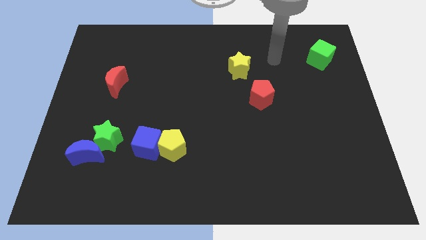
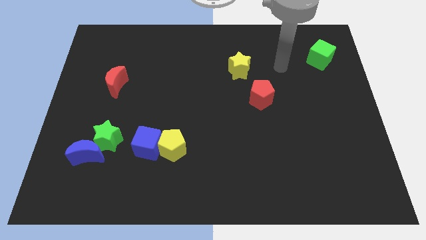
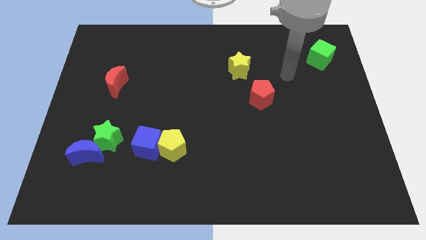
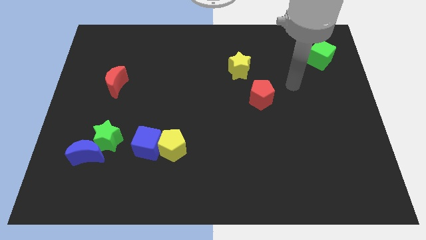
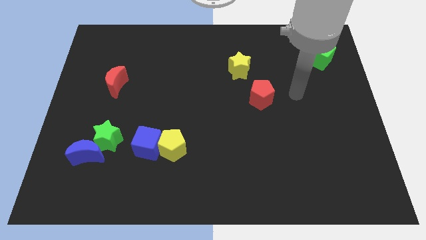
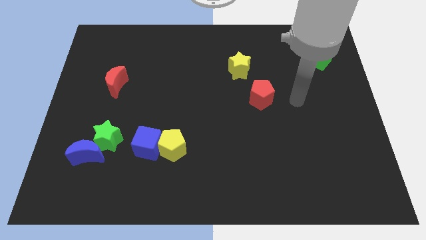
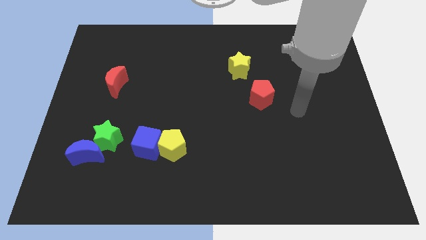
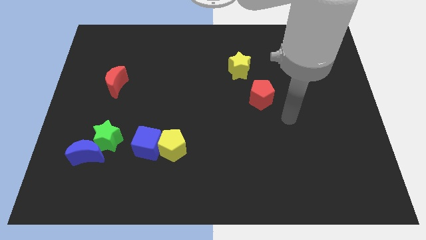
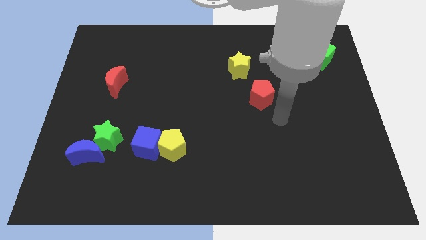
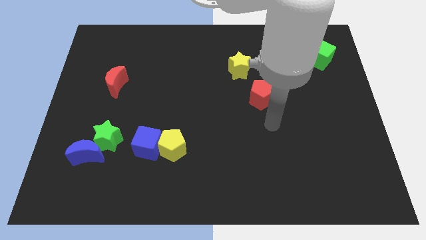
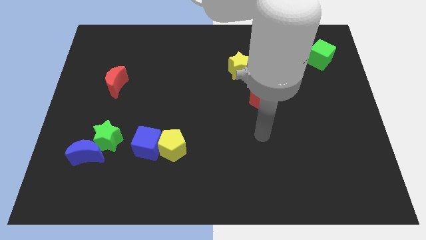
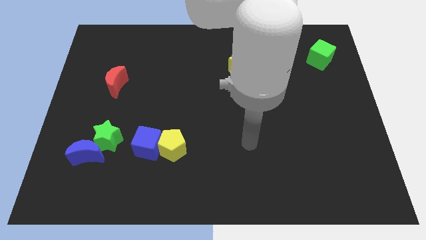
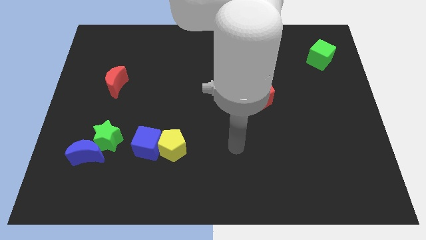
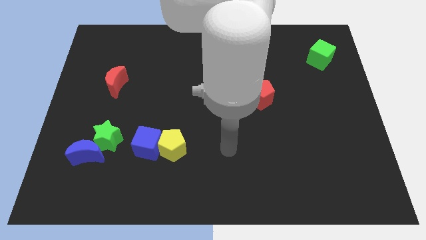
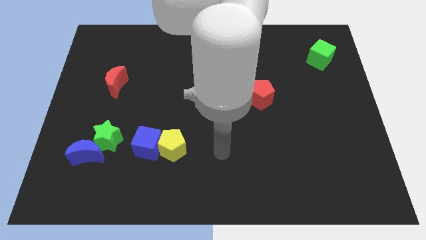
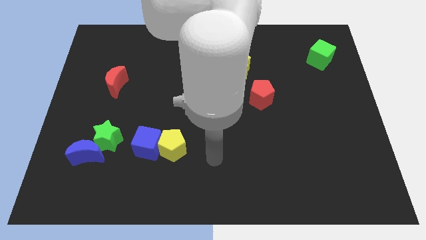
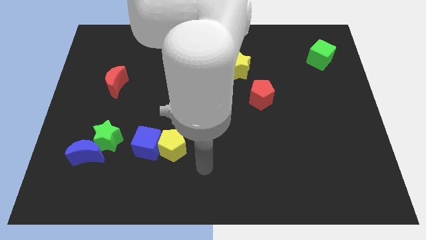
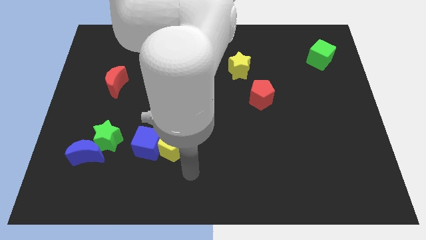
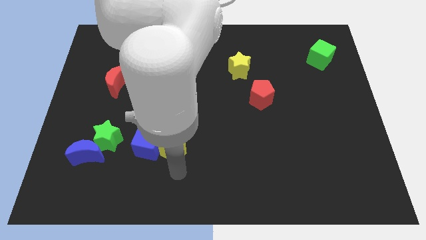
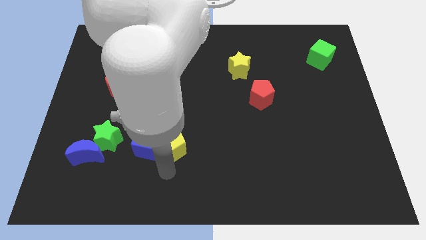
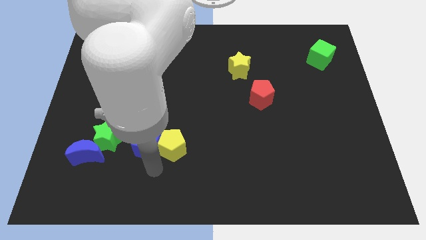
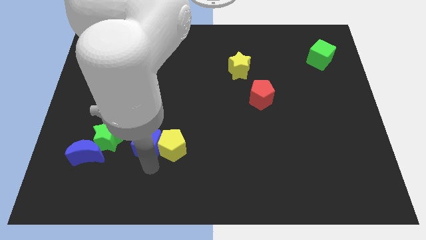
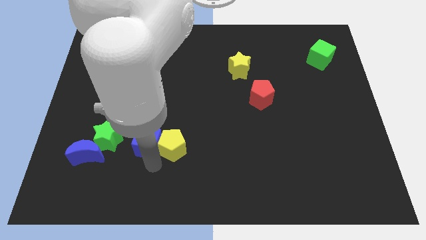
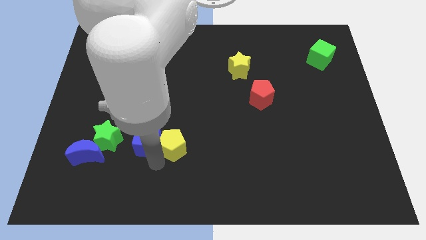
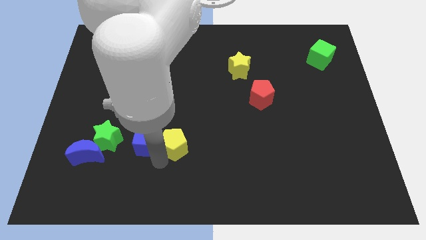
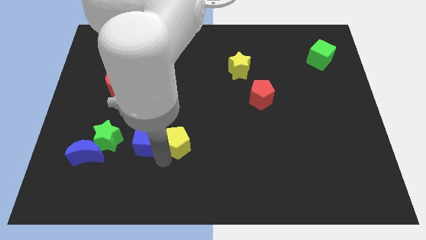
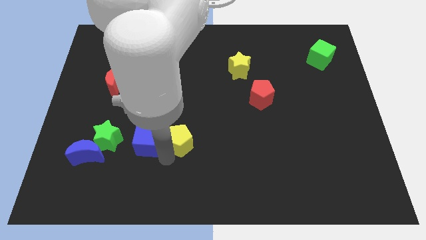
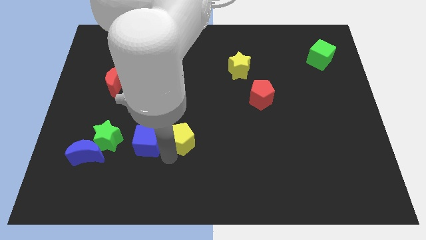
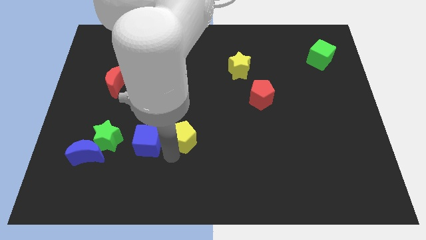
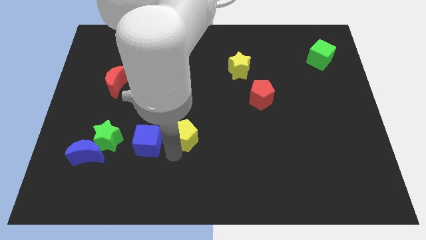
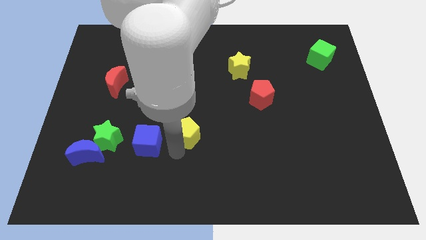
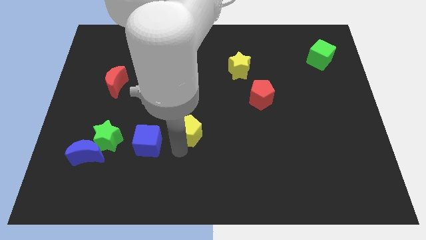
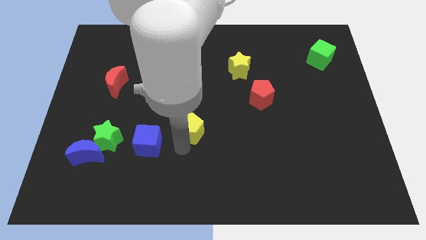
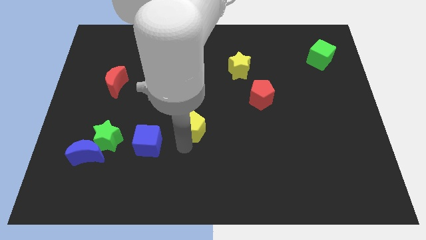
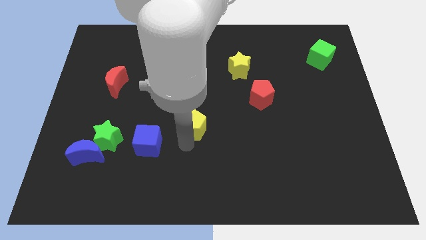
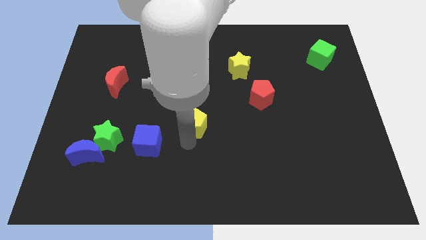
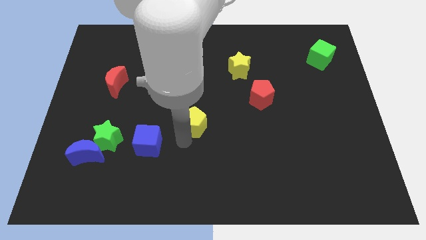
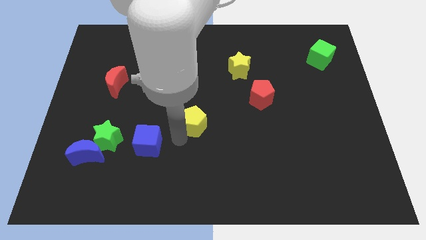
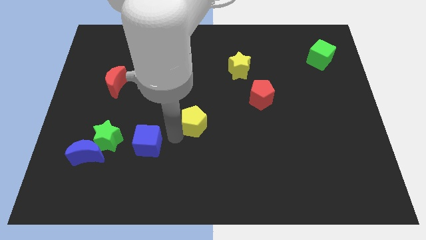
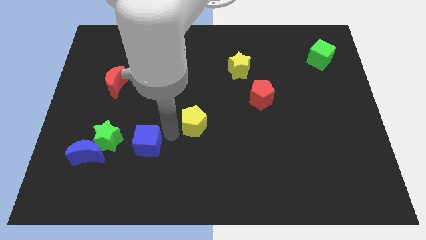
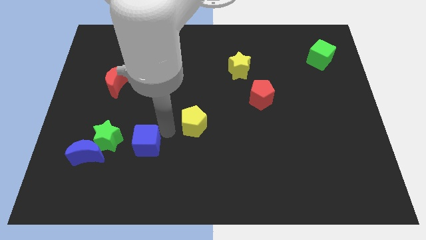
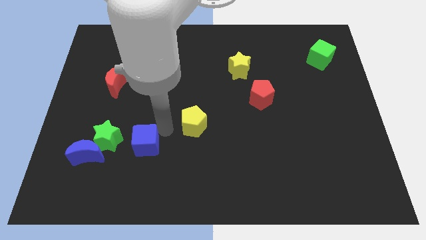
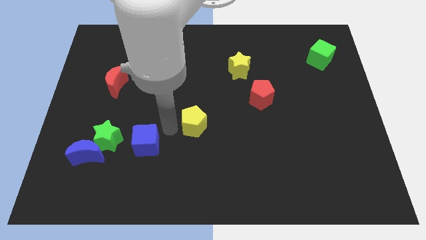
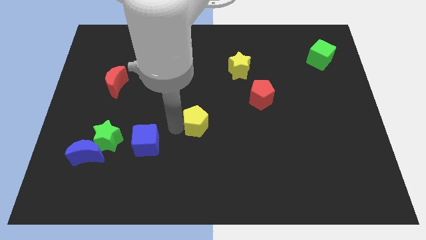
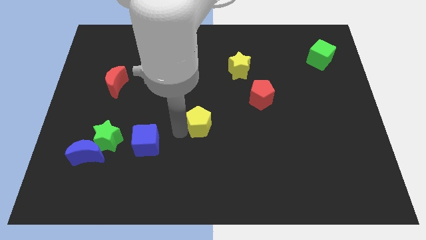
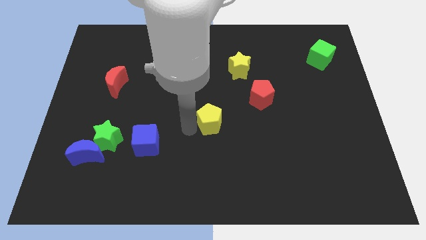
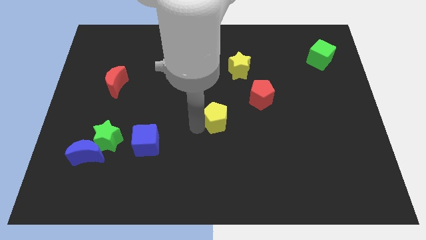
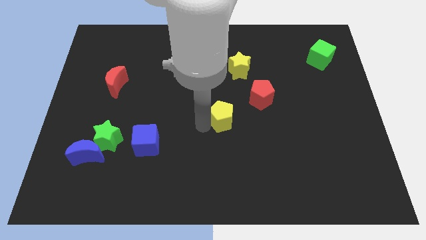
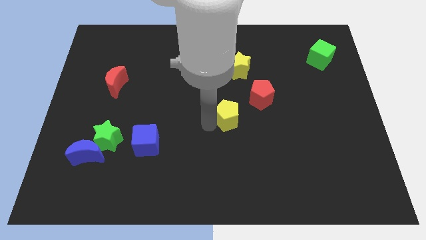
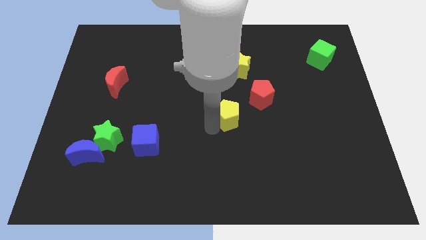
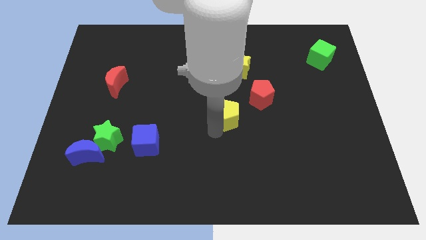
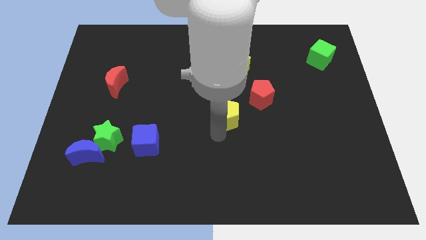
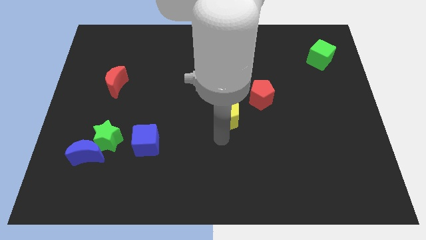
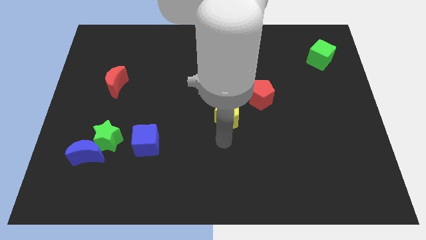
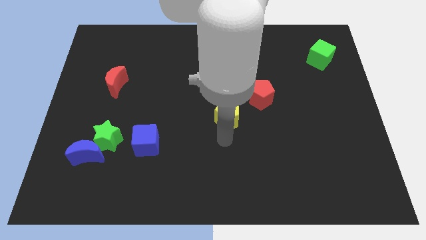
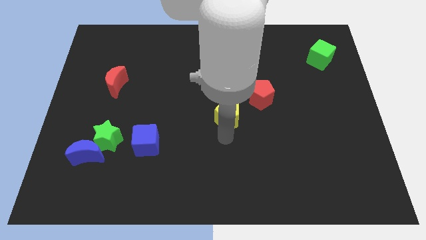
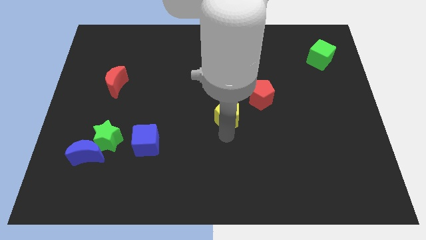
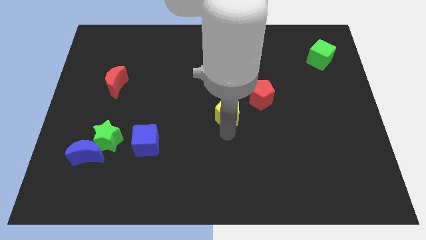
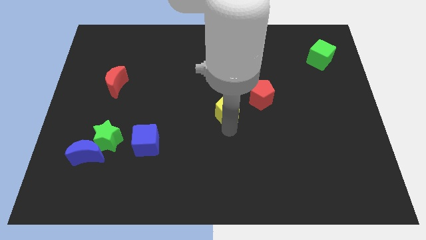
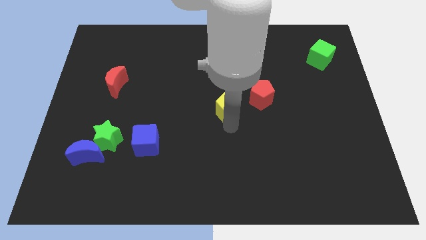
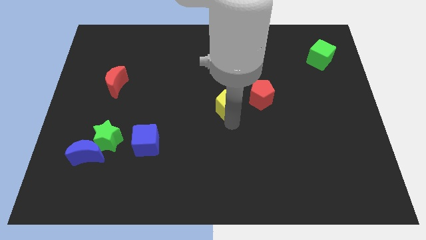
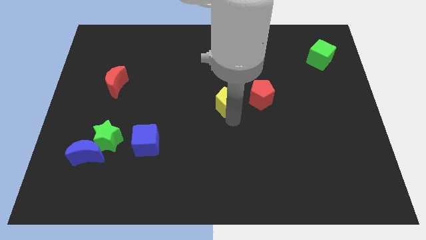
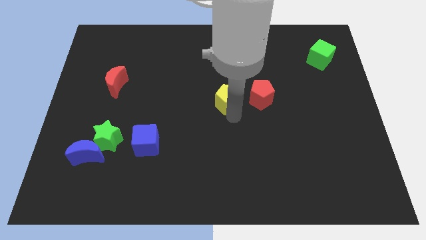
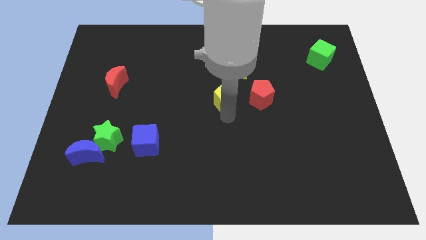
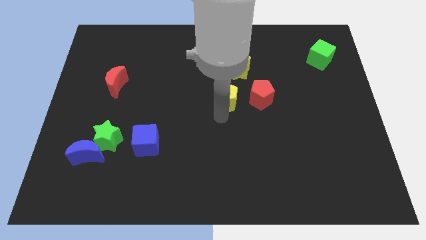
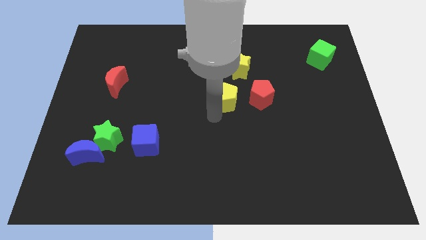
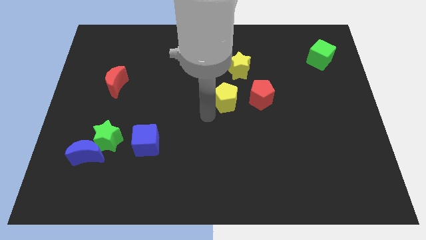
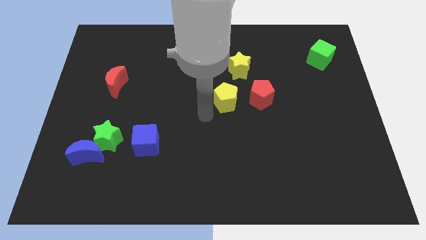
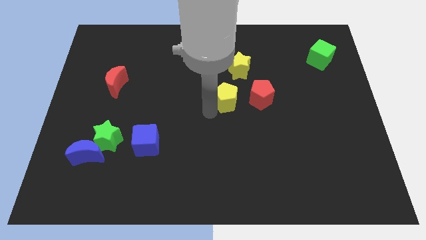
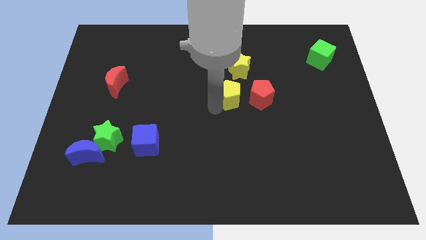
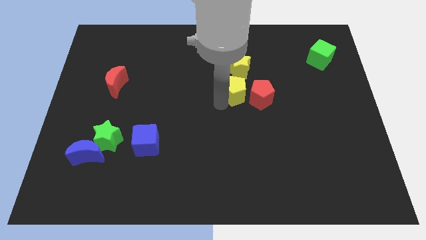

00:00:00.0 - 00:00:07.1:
move the yellow pentagon up and right diagonally

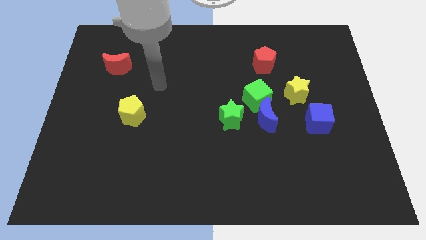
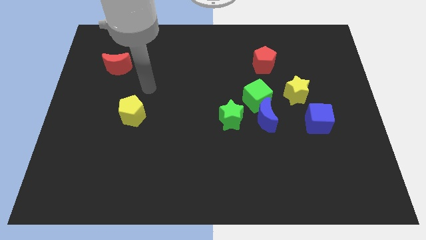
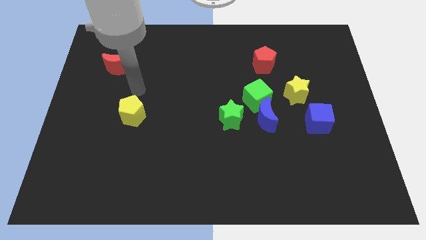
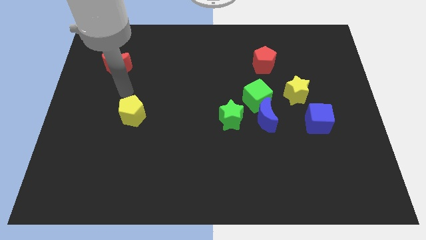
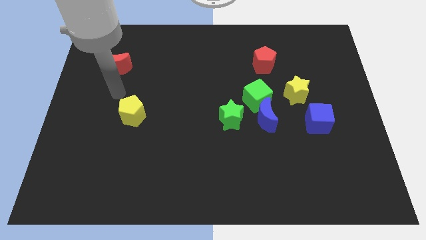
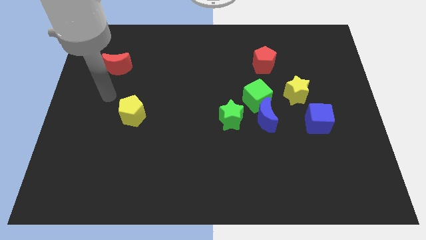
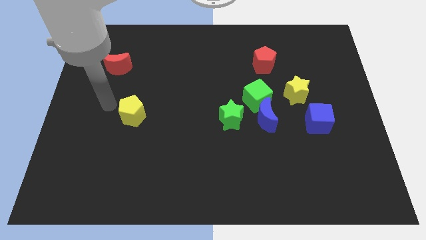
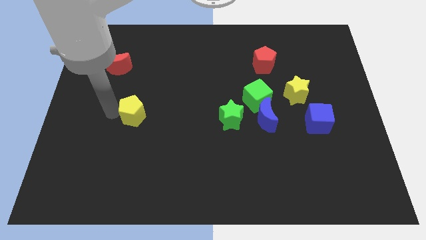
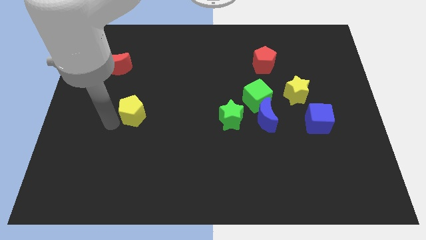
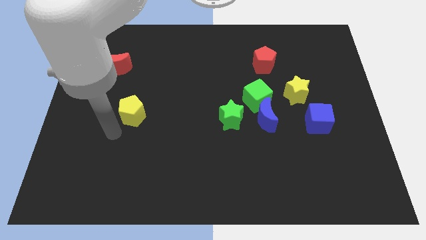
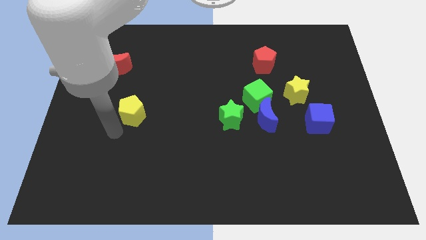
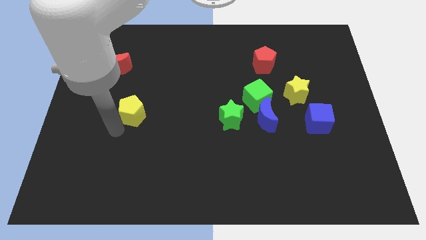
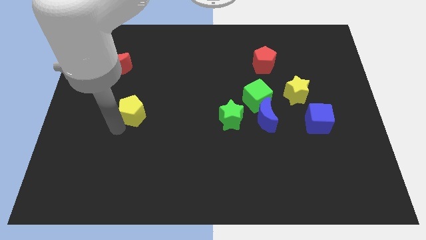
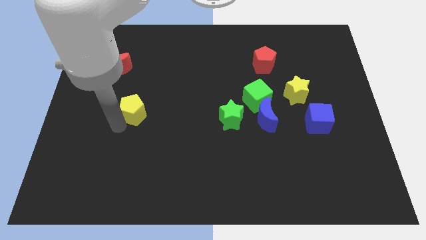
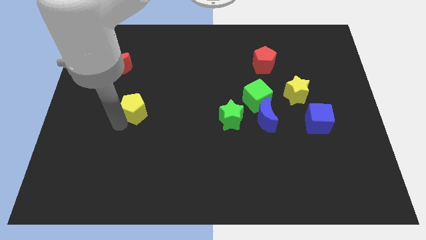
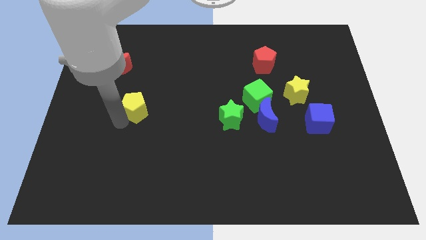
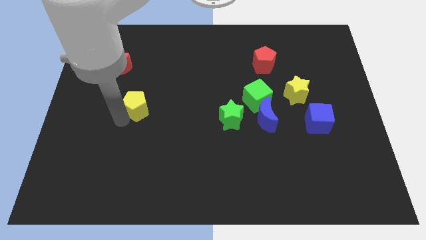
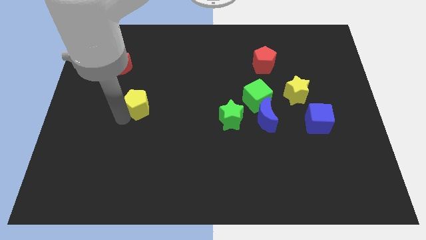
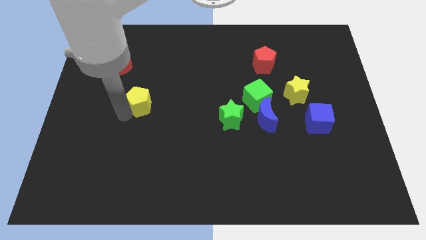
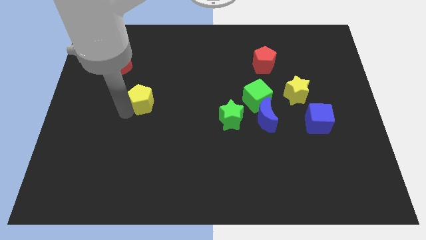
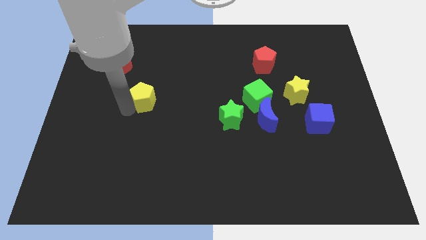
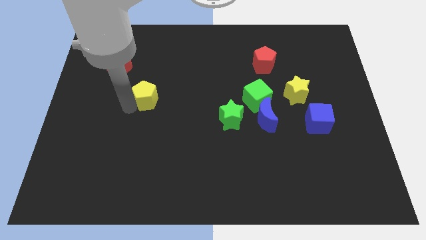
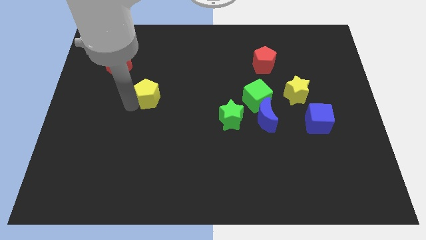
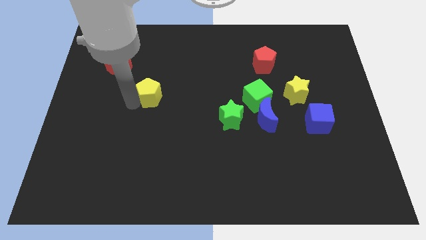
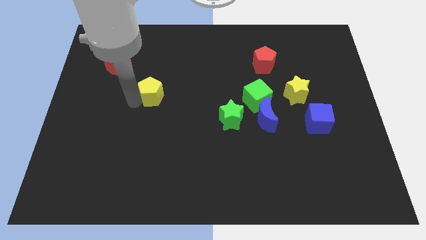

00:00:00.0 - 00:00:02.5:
slightly push the yellow pentagon upwards and to the right diagonally
